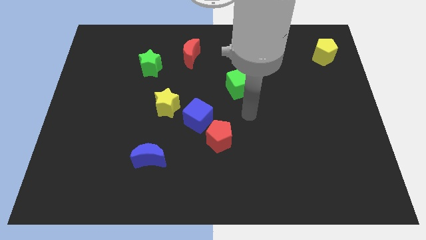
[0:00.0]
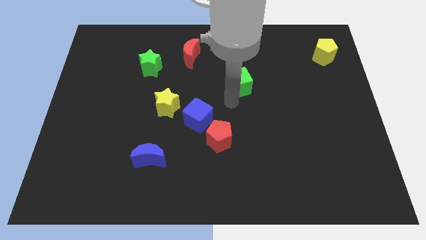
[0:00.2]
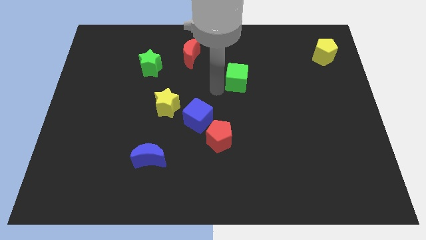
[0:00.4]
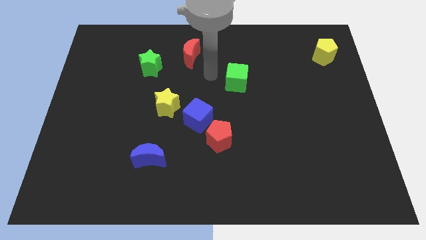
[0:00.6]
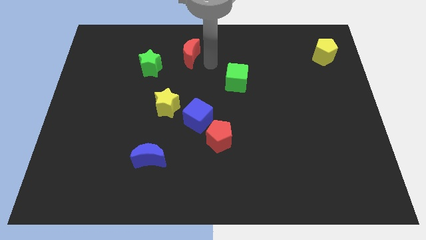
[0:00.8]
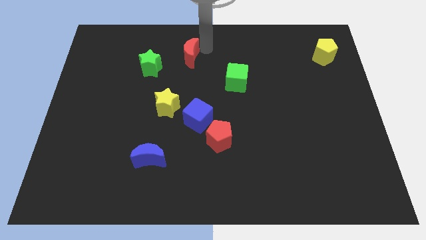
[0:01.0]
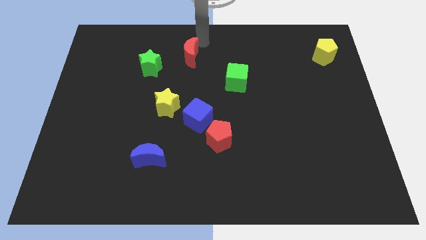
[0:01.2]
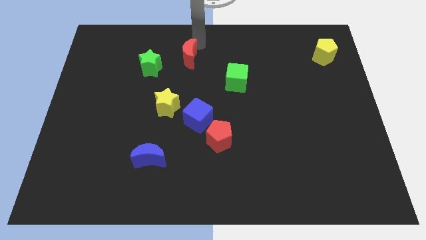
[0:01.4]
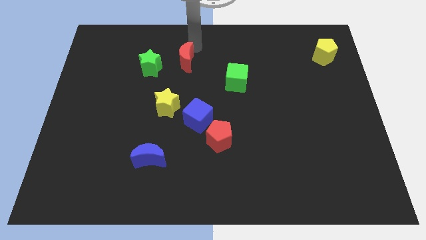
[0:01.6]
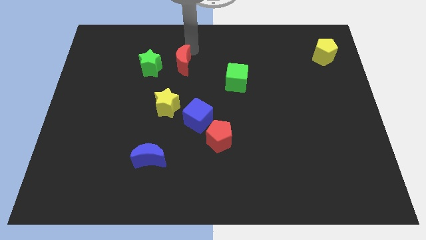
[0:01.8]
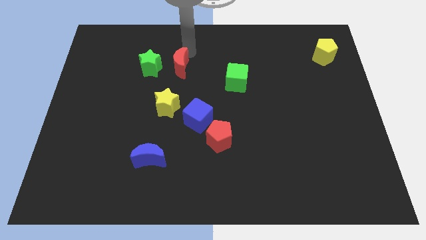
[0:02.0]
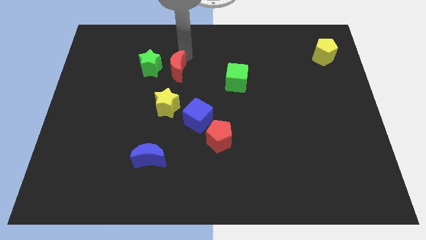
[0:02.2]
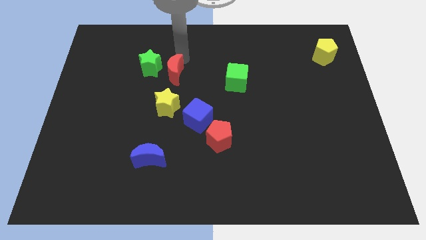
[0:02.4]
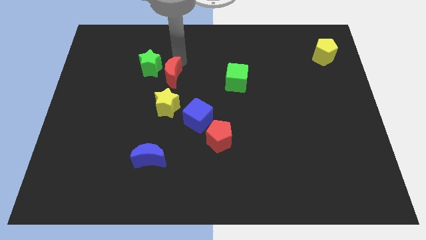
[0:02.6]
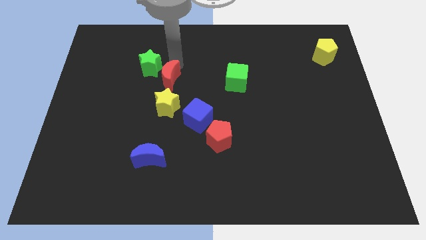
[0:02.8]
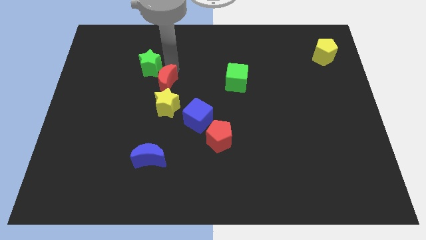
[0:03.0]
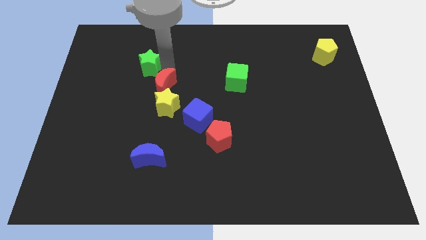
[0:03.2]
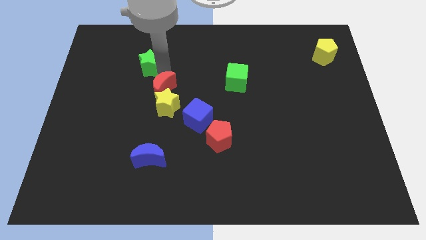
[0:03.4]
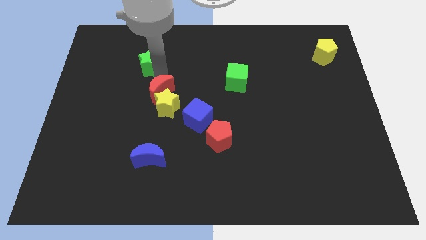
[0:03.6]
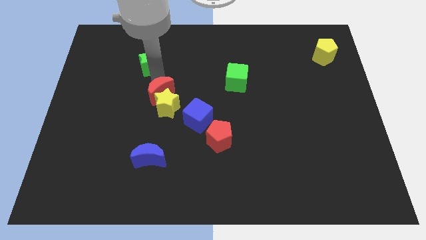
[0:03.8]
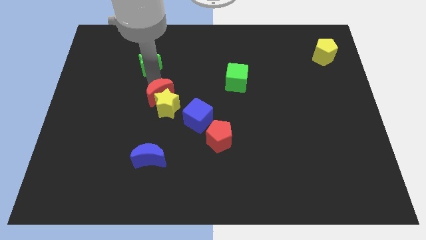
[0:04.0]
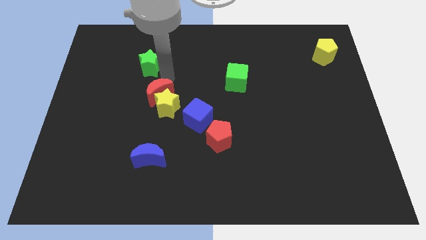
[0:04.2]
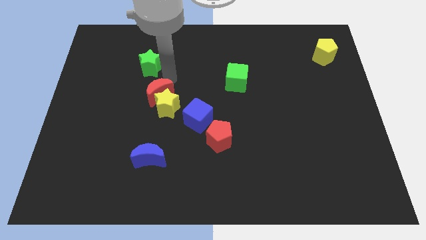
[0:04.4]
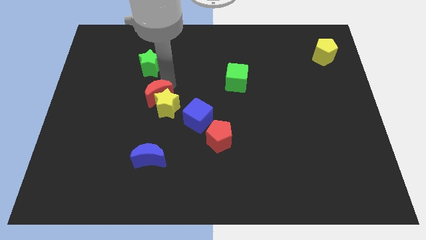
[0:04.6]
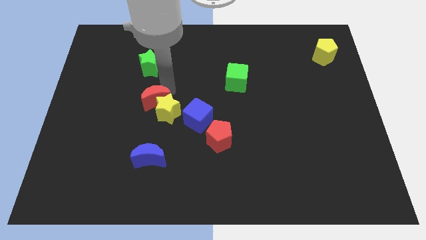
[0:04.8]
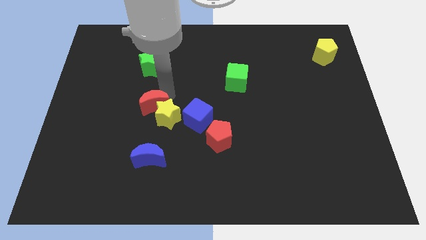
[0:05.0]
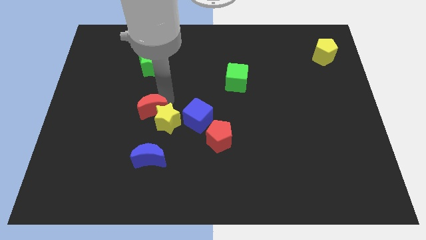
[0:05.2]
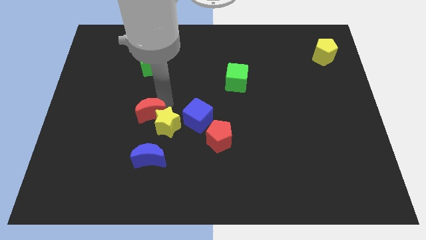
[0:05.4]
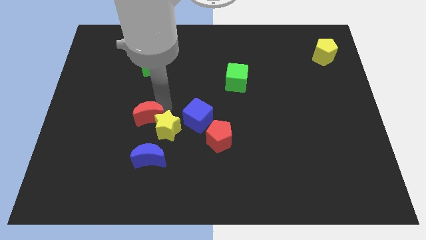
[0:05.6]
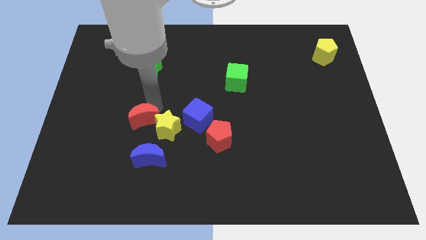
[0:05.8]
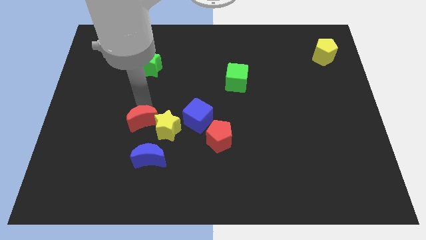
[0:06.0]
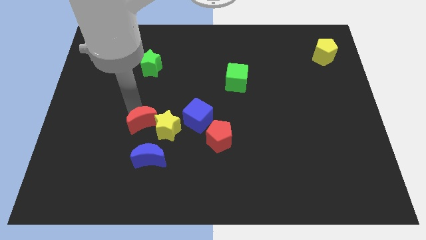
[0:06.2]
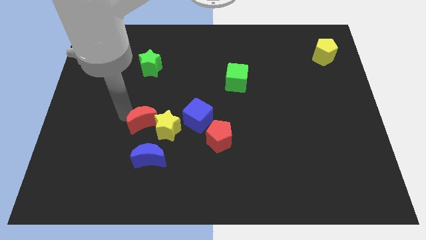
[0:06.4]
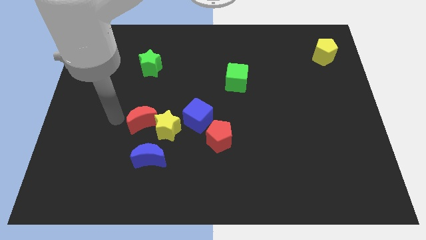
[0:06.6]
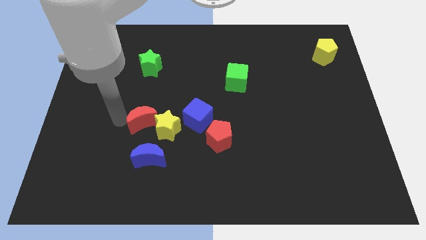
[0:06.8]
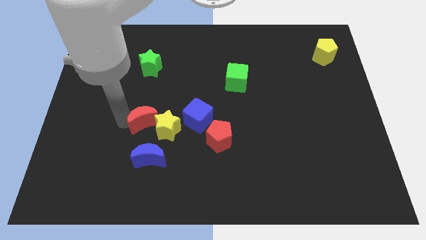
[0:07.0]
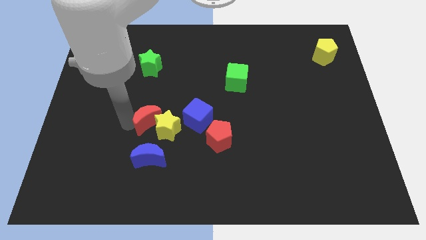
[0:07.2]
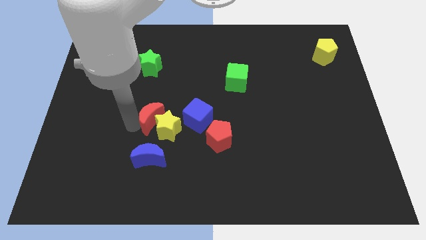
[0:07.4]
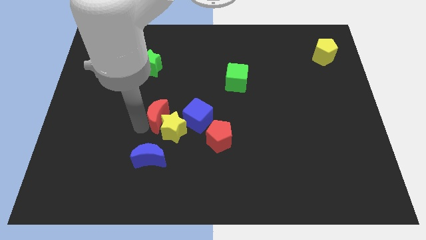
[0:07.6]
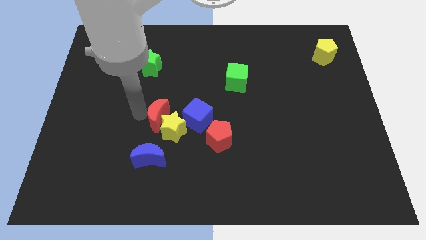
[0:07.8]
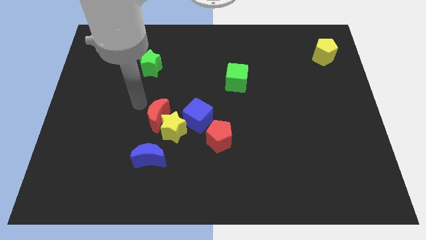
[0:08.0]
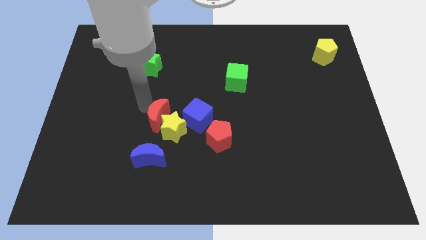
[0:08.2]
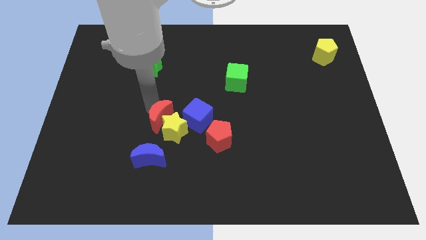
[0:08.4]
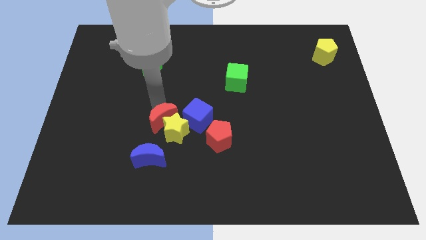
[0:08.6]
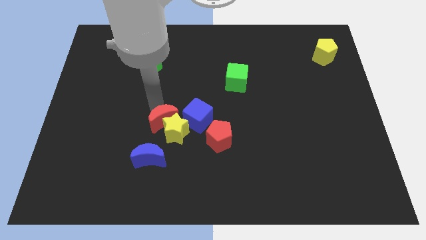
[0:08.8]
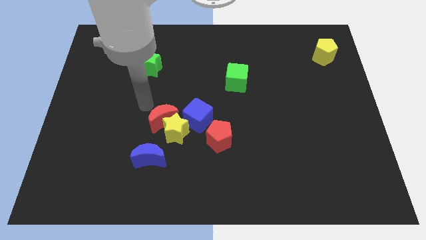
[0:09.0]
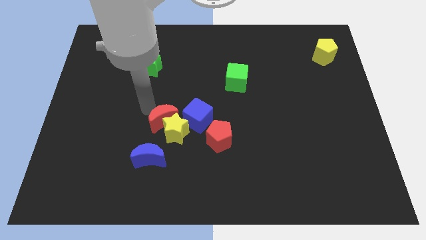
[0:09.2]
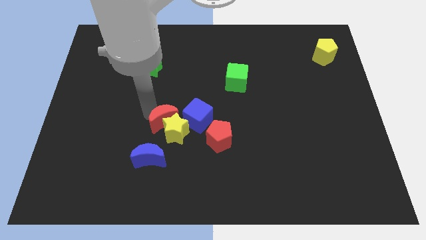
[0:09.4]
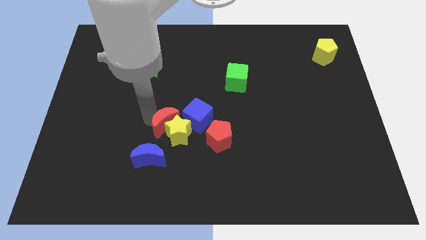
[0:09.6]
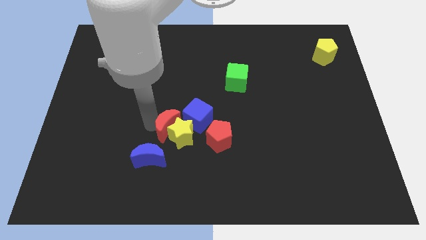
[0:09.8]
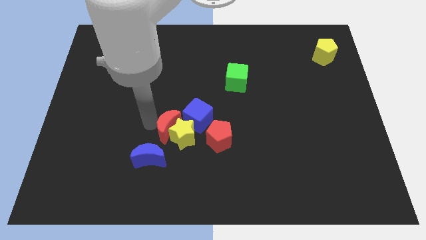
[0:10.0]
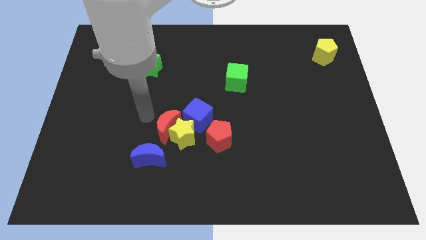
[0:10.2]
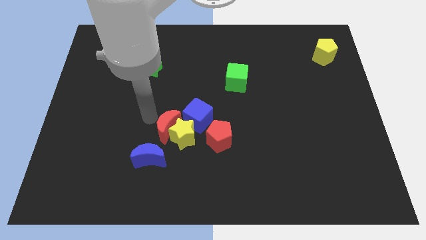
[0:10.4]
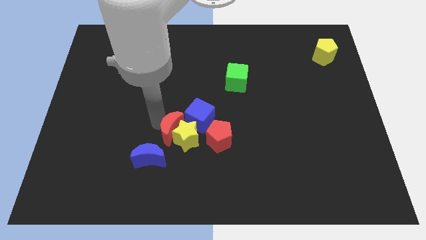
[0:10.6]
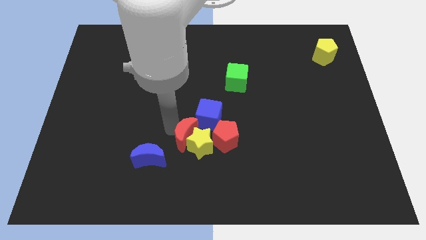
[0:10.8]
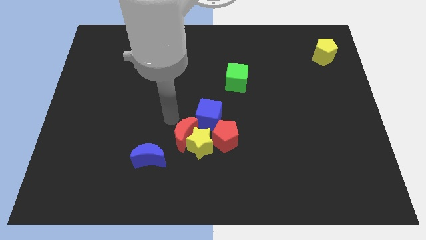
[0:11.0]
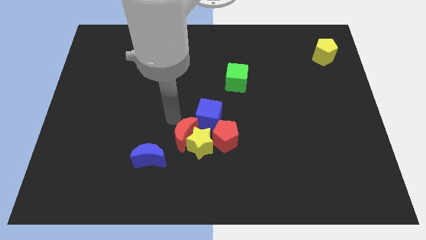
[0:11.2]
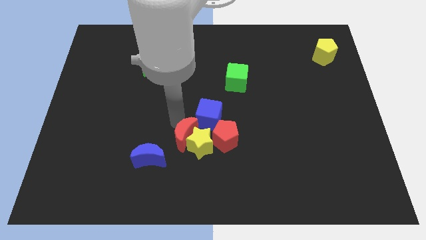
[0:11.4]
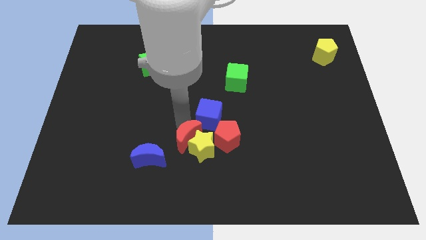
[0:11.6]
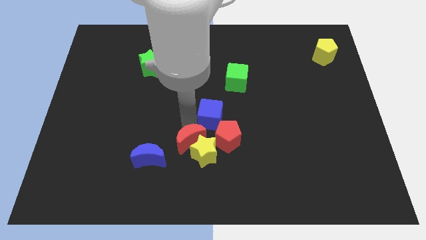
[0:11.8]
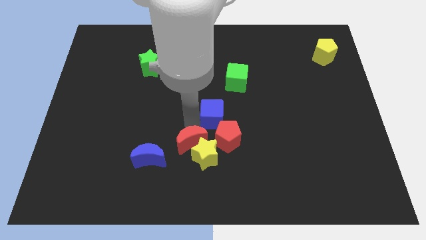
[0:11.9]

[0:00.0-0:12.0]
slide the red moon diagonally down and to the left of the red pentagon
